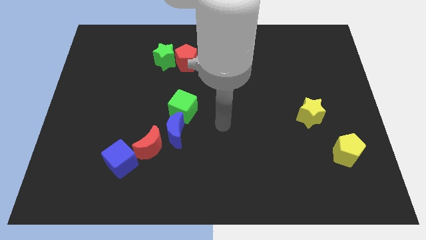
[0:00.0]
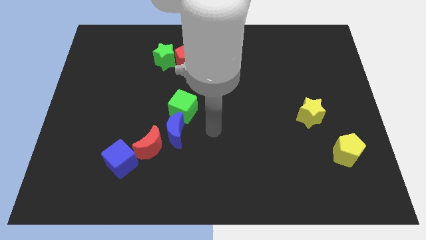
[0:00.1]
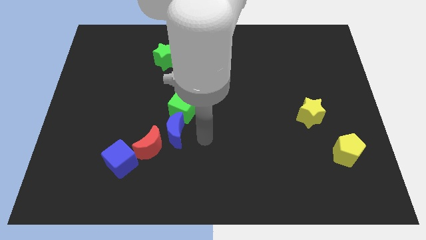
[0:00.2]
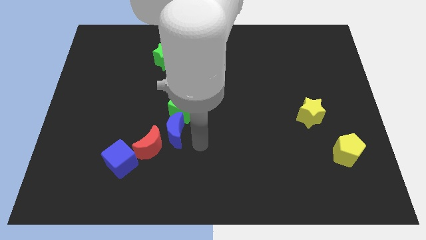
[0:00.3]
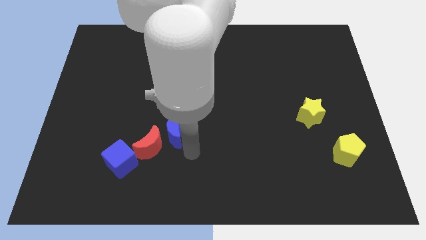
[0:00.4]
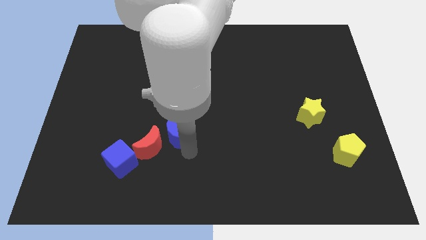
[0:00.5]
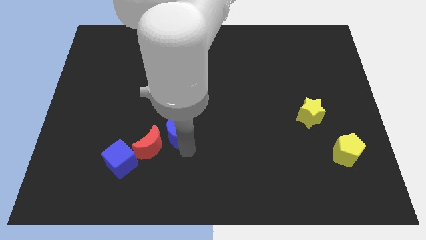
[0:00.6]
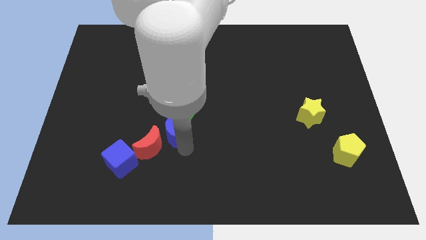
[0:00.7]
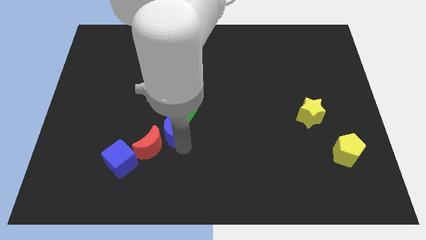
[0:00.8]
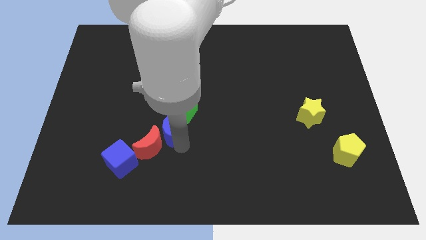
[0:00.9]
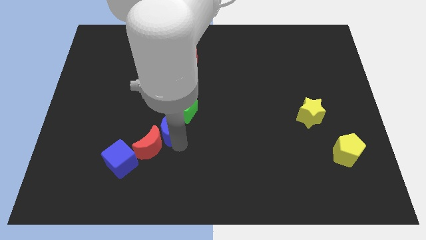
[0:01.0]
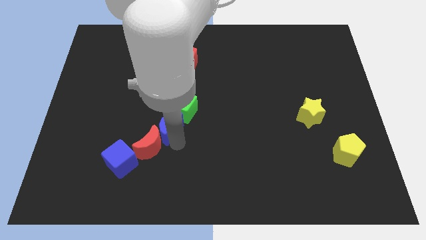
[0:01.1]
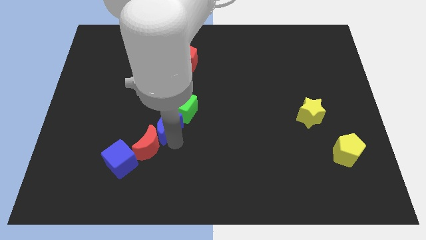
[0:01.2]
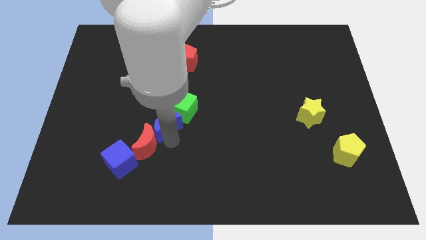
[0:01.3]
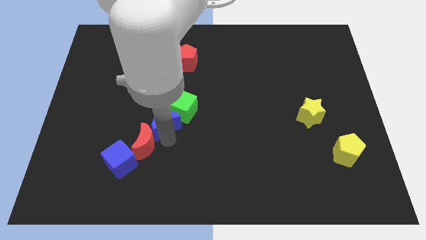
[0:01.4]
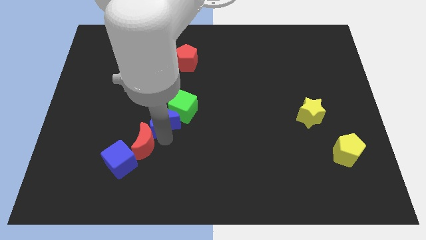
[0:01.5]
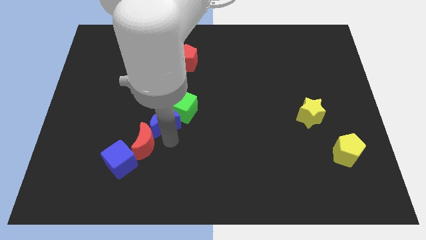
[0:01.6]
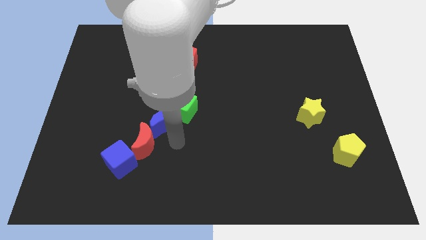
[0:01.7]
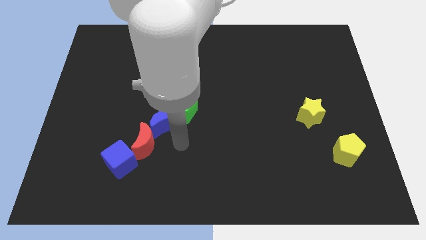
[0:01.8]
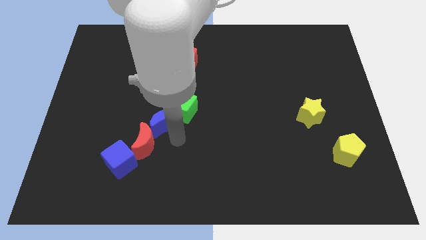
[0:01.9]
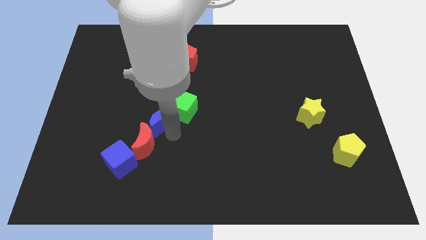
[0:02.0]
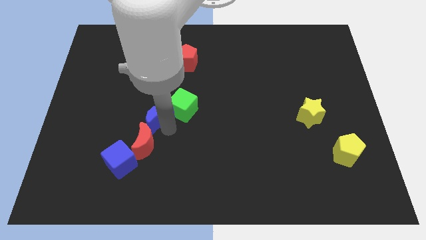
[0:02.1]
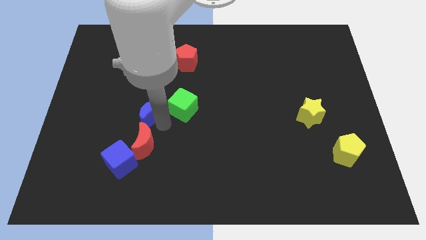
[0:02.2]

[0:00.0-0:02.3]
move the blue moon somewhat diagonally up and left

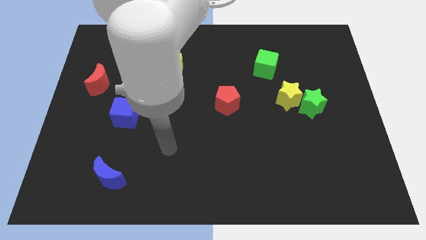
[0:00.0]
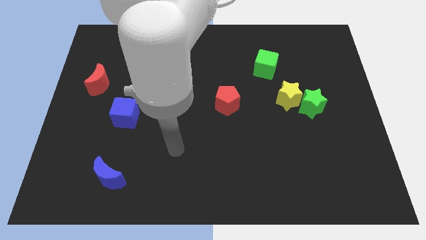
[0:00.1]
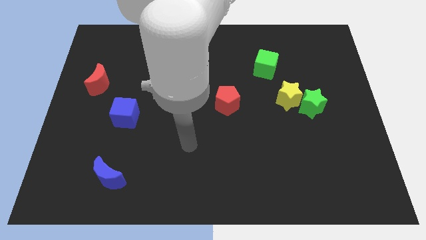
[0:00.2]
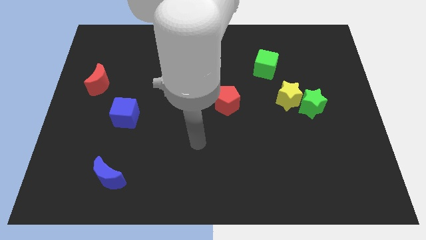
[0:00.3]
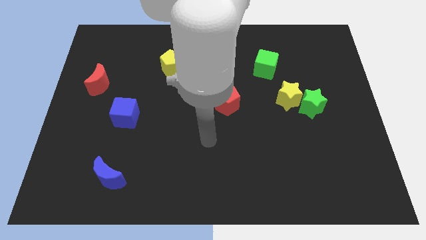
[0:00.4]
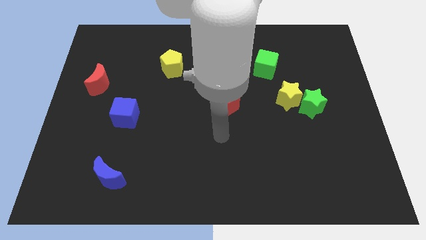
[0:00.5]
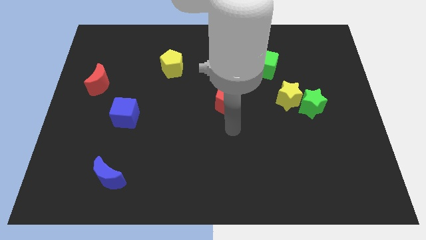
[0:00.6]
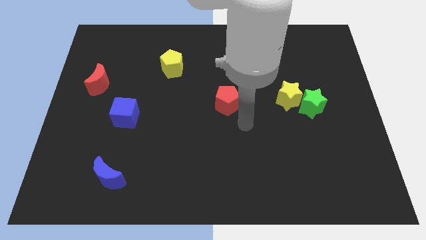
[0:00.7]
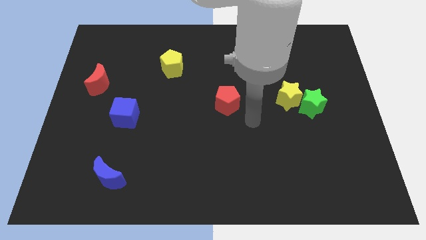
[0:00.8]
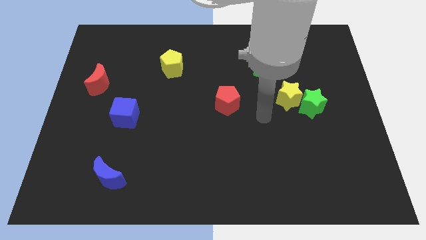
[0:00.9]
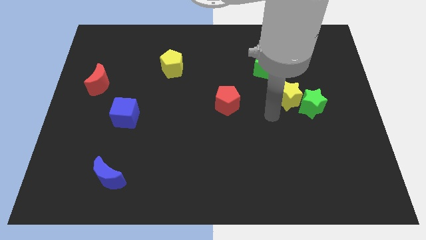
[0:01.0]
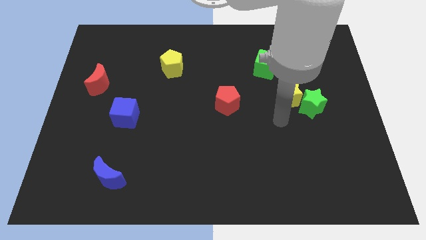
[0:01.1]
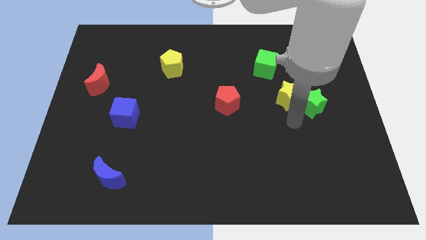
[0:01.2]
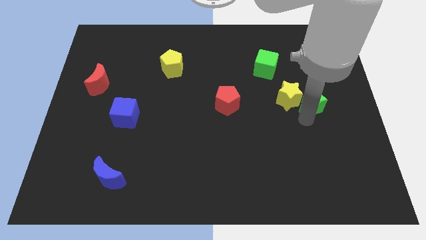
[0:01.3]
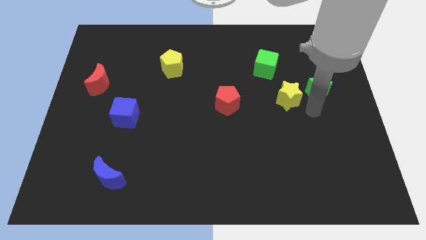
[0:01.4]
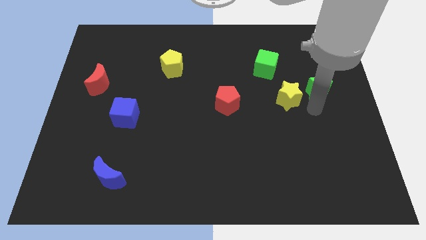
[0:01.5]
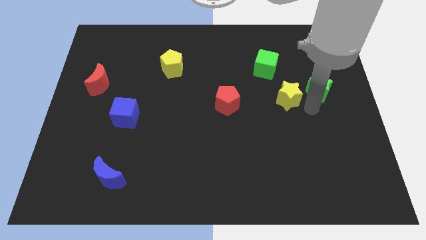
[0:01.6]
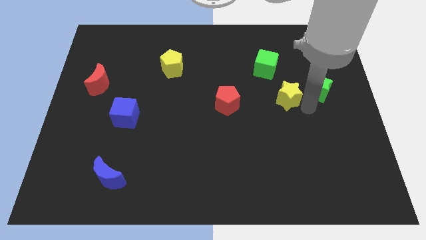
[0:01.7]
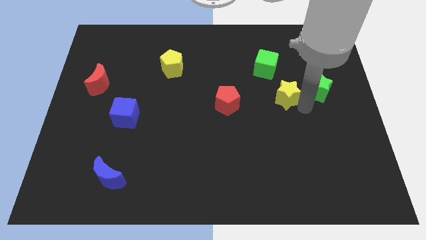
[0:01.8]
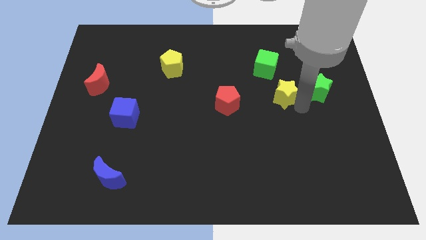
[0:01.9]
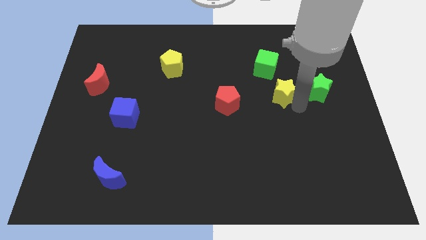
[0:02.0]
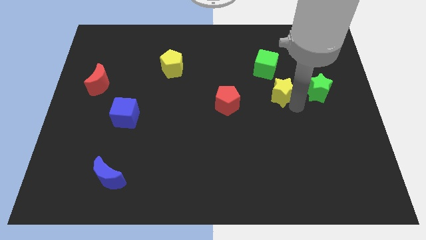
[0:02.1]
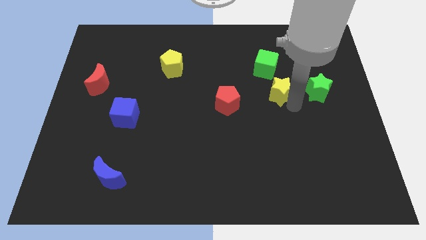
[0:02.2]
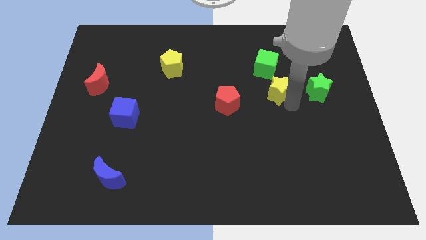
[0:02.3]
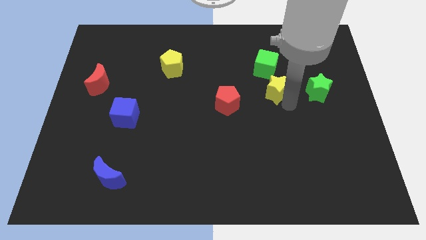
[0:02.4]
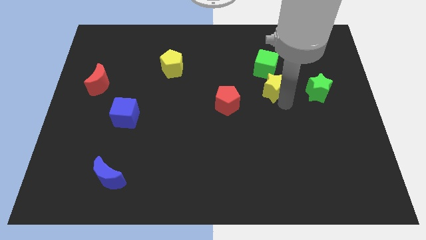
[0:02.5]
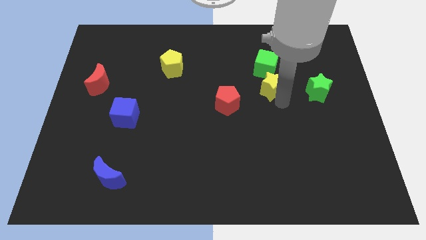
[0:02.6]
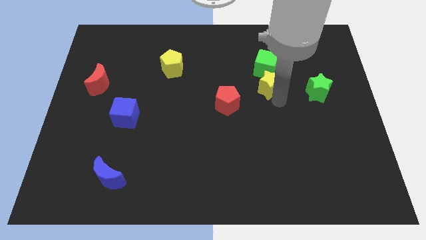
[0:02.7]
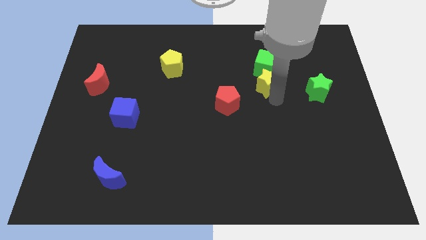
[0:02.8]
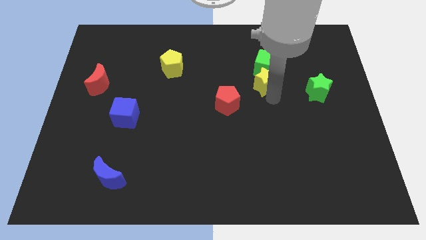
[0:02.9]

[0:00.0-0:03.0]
move the yellow star up and then to the left a bit

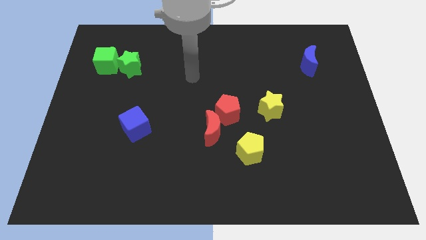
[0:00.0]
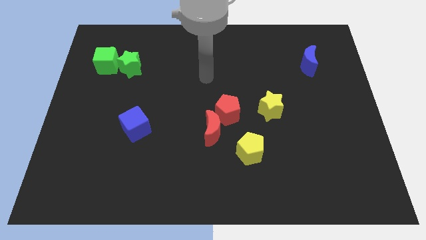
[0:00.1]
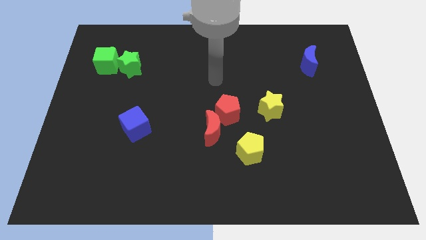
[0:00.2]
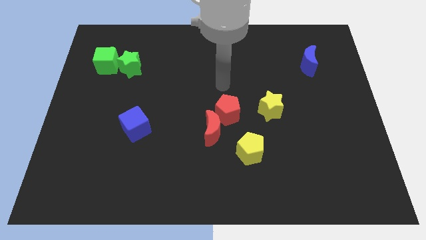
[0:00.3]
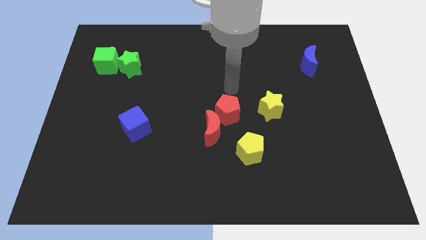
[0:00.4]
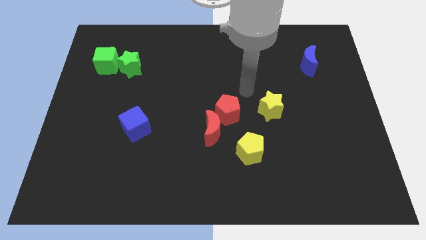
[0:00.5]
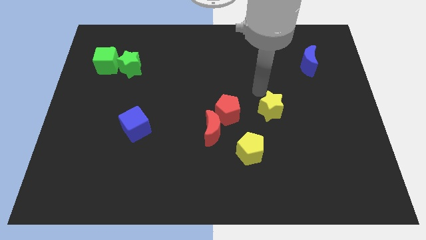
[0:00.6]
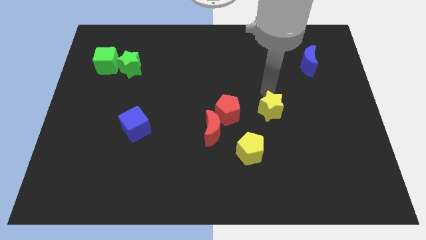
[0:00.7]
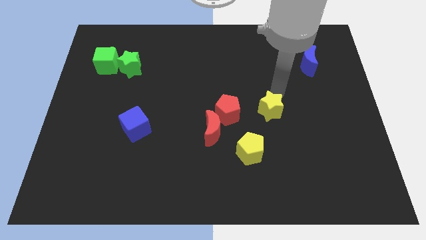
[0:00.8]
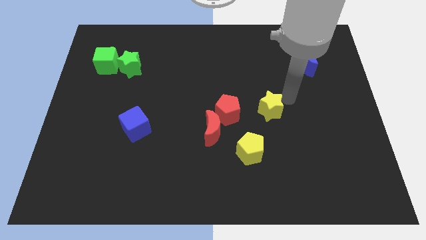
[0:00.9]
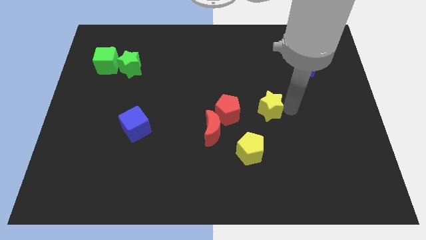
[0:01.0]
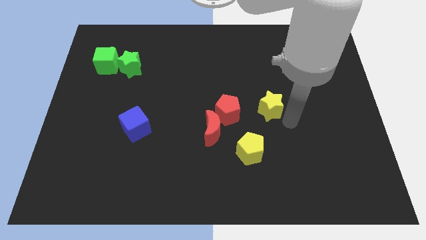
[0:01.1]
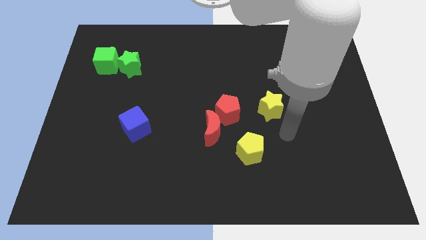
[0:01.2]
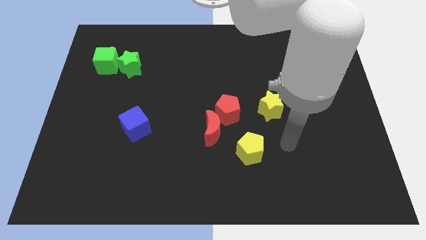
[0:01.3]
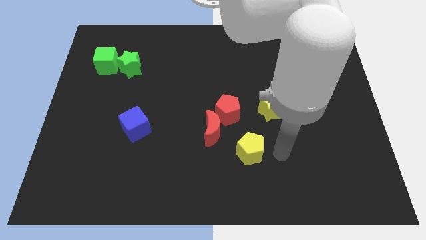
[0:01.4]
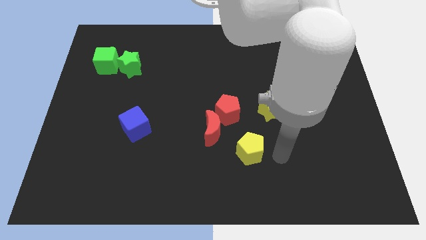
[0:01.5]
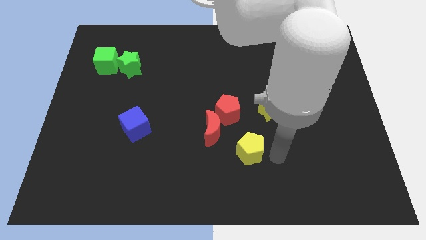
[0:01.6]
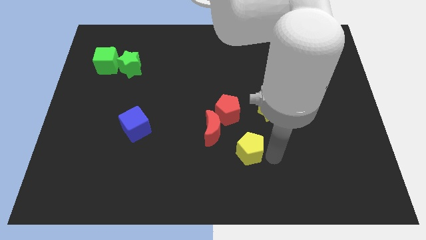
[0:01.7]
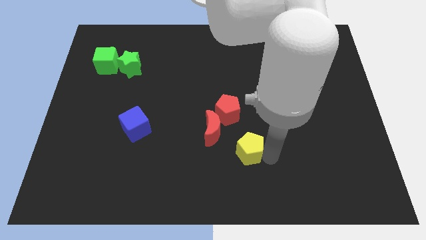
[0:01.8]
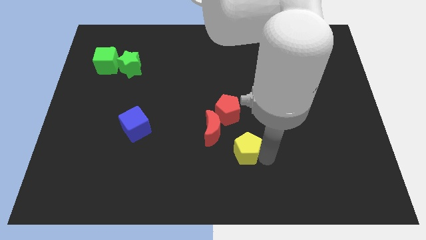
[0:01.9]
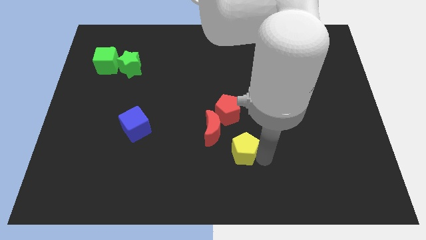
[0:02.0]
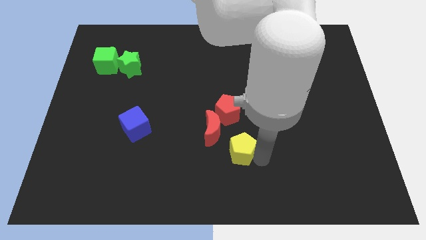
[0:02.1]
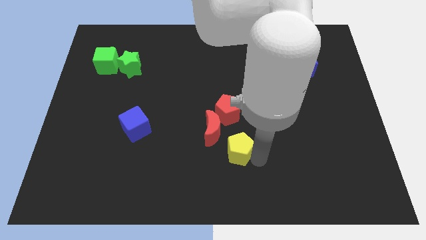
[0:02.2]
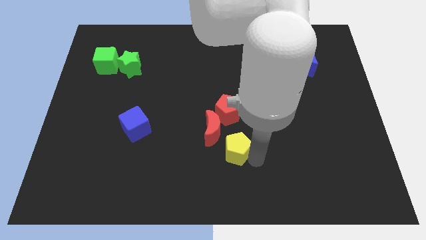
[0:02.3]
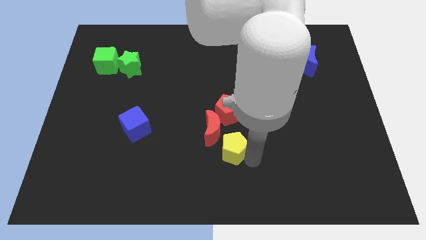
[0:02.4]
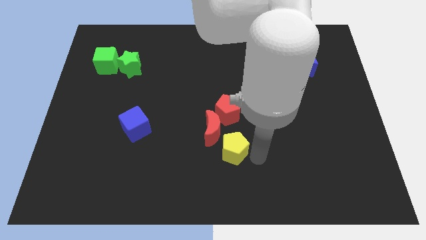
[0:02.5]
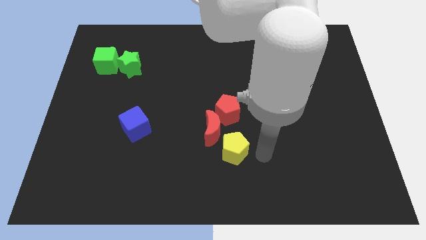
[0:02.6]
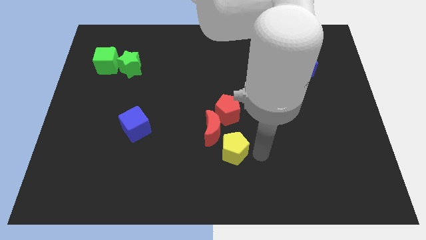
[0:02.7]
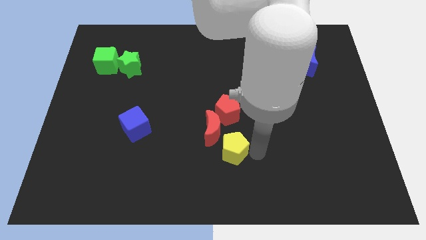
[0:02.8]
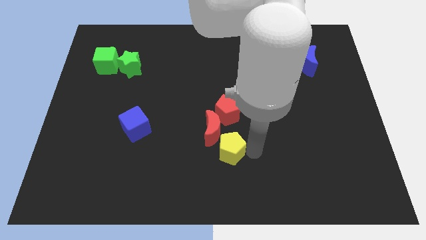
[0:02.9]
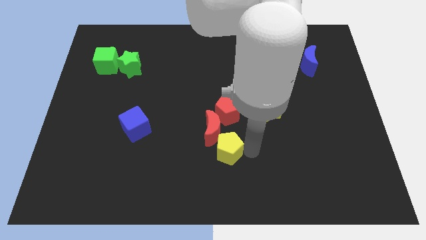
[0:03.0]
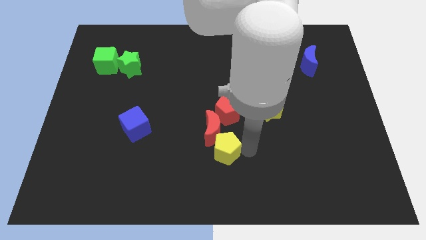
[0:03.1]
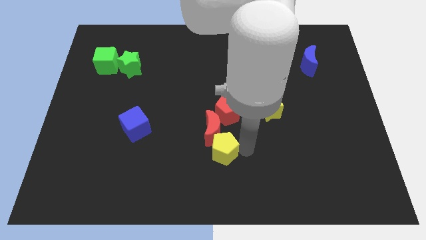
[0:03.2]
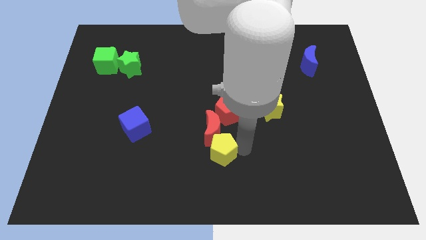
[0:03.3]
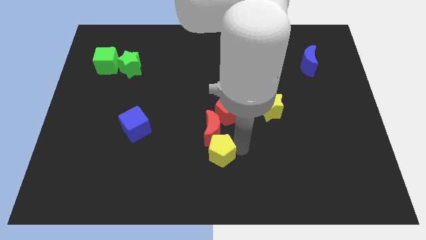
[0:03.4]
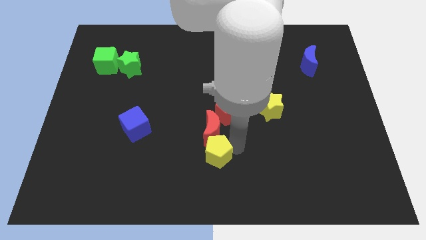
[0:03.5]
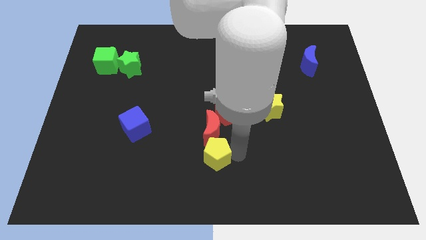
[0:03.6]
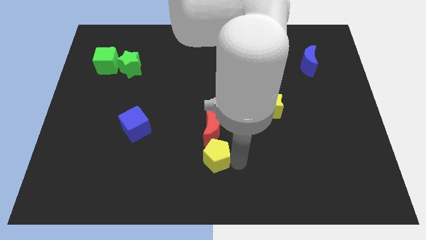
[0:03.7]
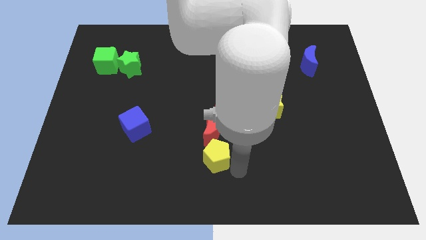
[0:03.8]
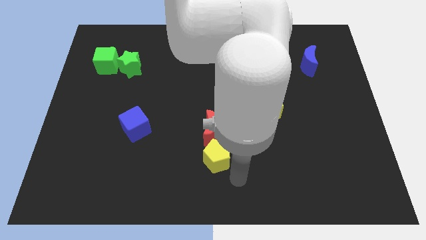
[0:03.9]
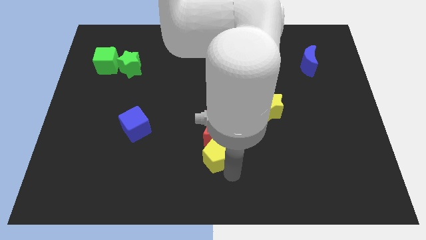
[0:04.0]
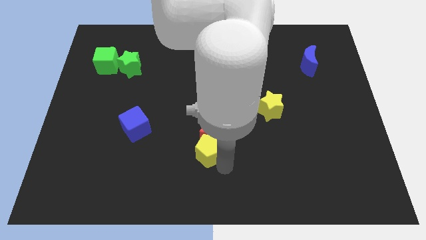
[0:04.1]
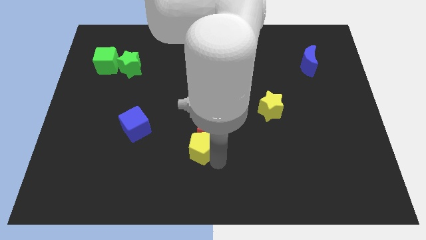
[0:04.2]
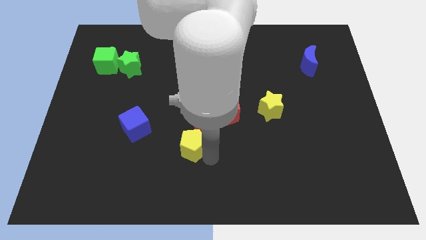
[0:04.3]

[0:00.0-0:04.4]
slightly push the yellow pentagon upwards and to the left
